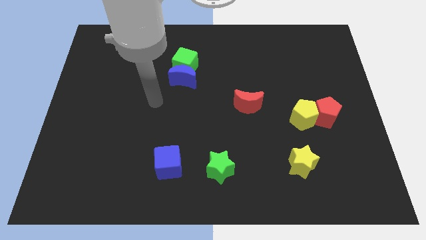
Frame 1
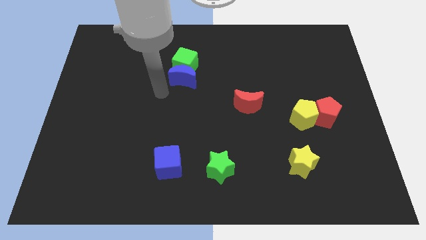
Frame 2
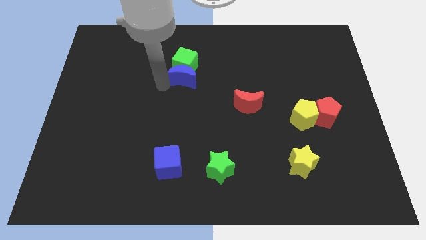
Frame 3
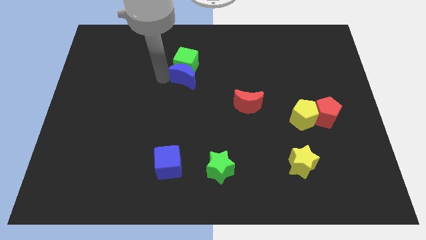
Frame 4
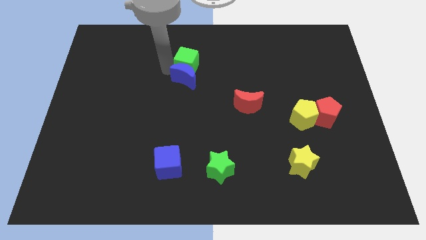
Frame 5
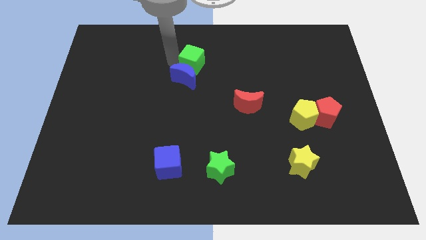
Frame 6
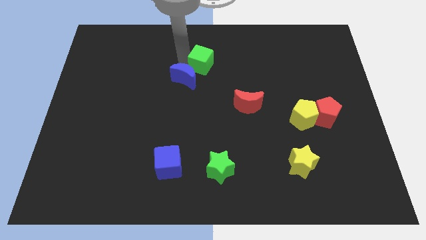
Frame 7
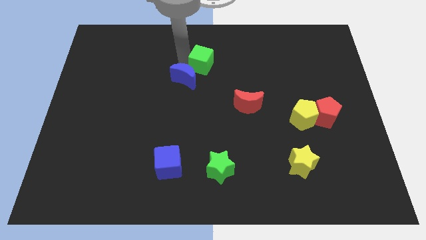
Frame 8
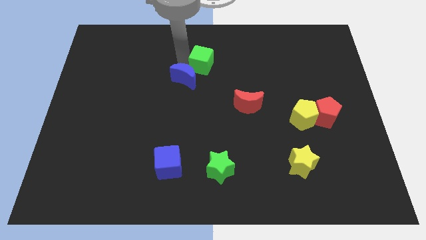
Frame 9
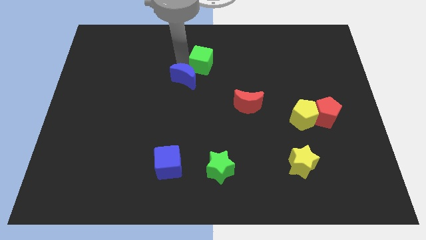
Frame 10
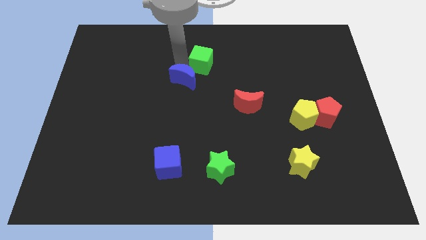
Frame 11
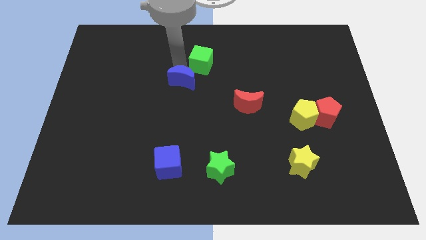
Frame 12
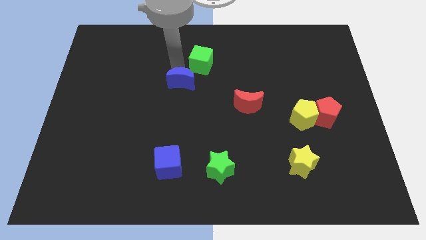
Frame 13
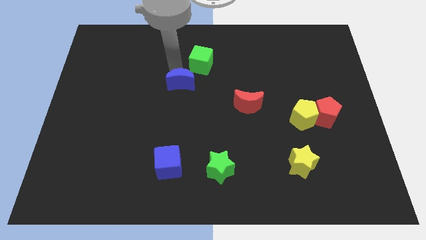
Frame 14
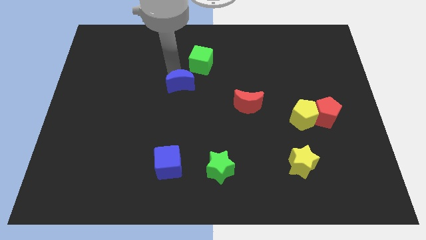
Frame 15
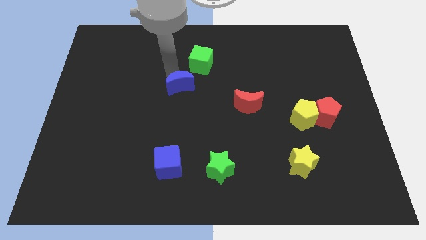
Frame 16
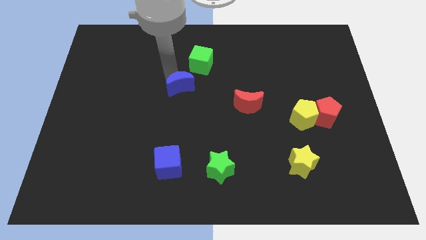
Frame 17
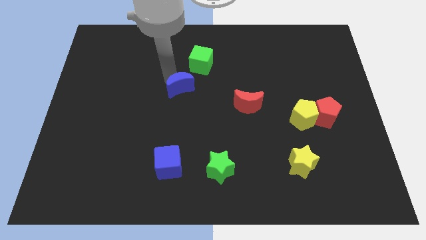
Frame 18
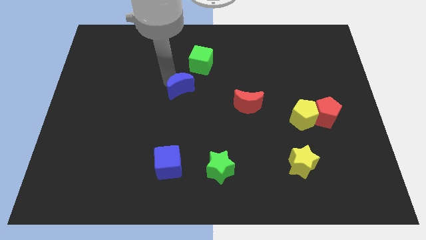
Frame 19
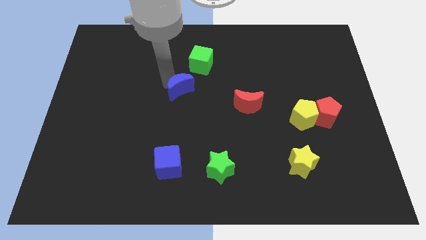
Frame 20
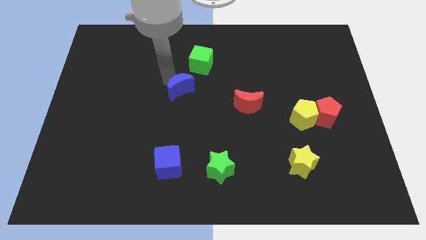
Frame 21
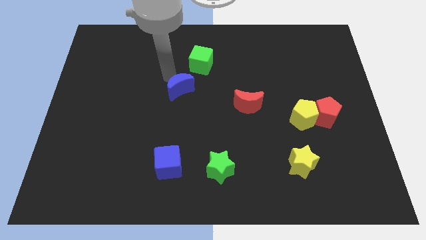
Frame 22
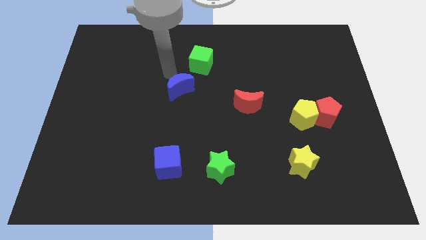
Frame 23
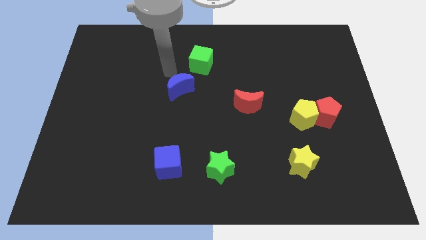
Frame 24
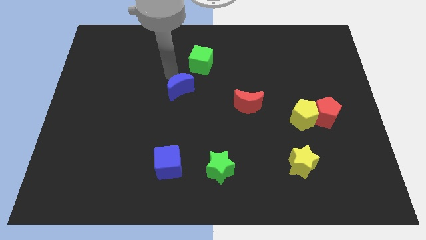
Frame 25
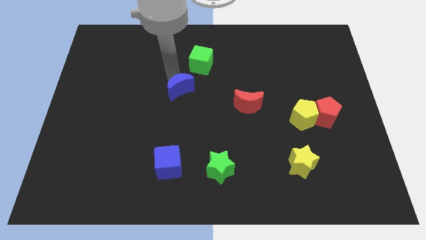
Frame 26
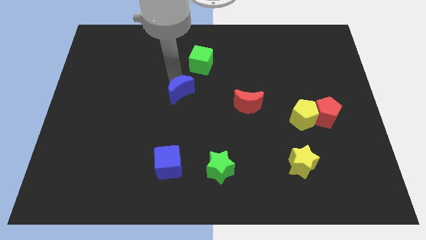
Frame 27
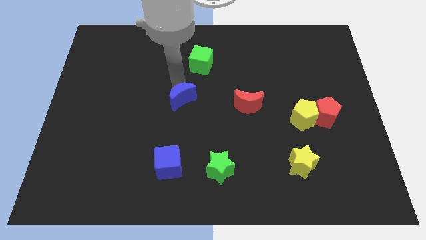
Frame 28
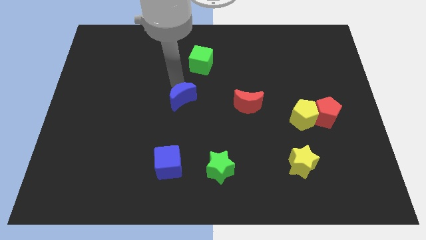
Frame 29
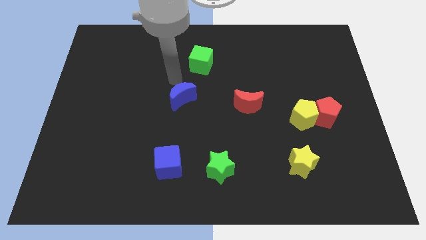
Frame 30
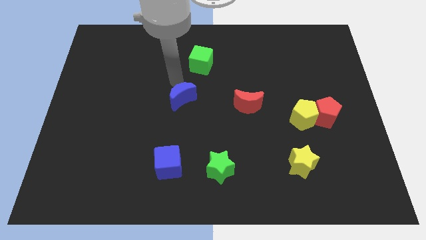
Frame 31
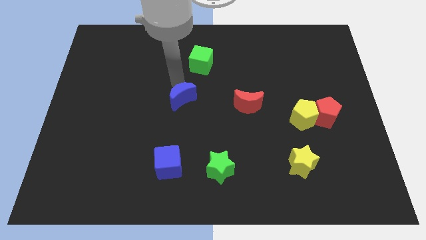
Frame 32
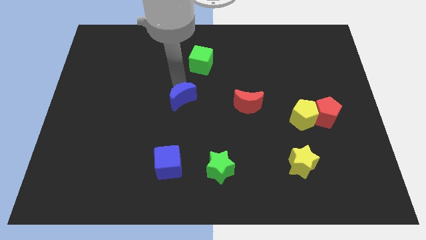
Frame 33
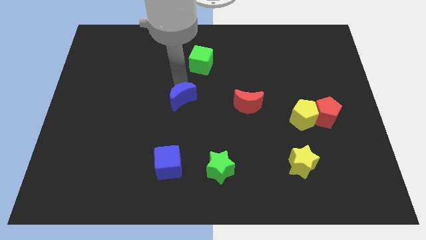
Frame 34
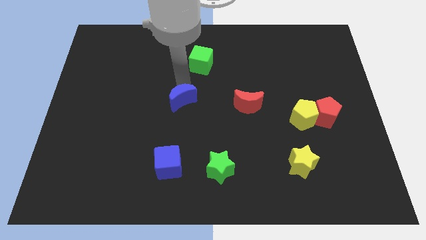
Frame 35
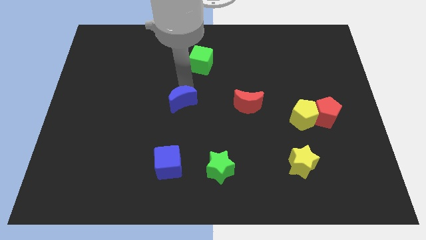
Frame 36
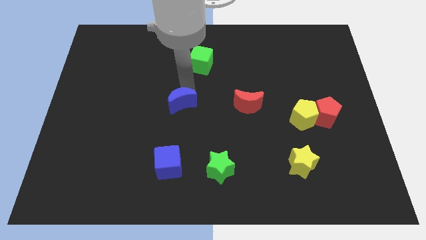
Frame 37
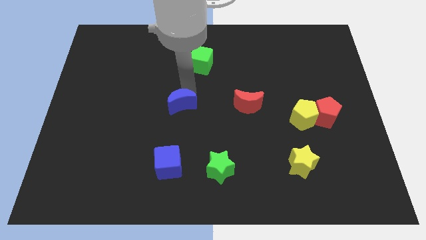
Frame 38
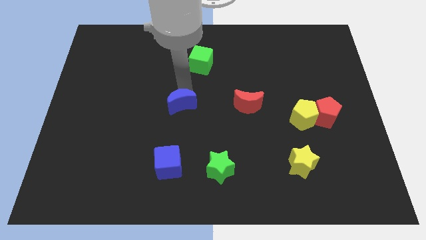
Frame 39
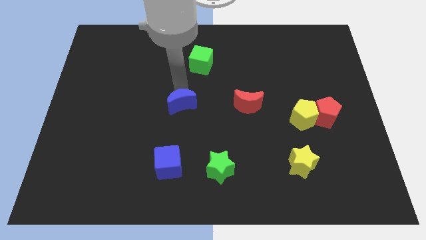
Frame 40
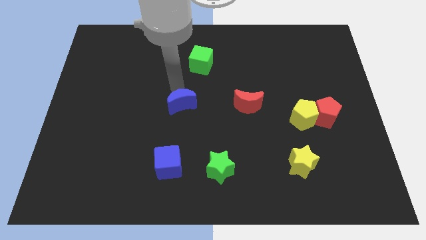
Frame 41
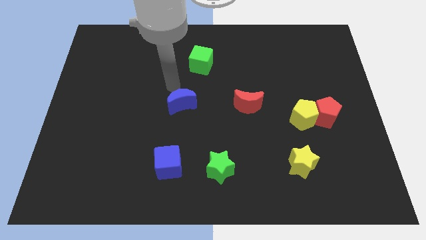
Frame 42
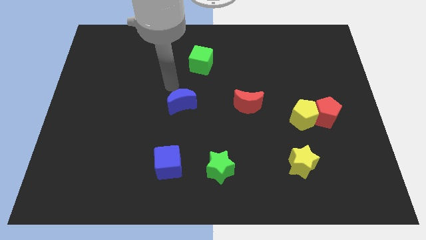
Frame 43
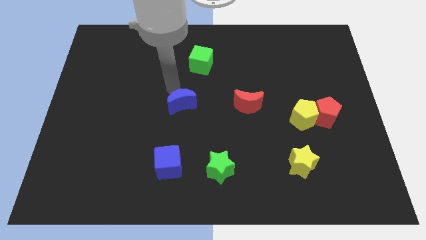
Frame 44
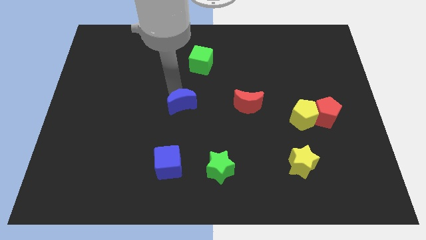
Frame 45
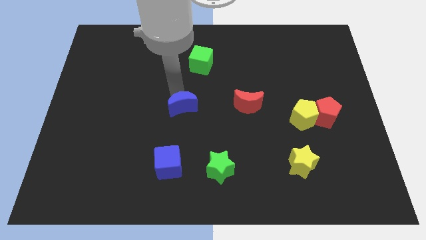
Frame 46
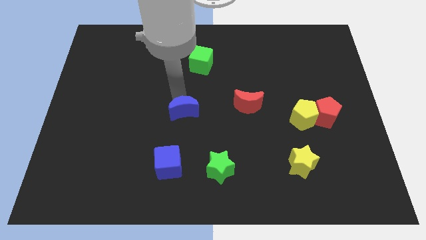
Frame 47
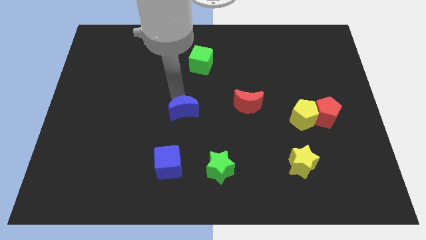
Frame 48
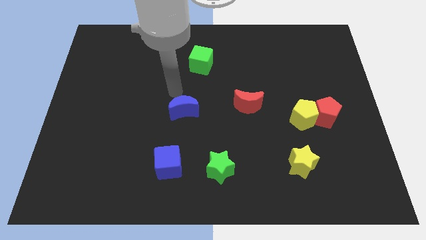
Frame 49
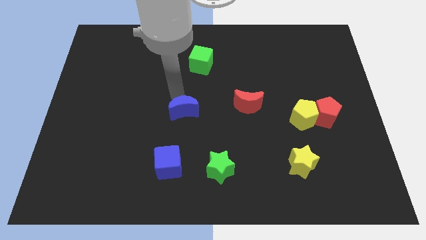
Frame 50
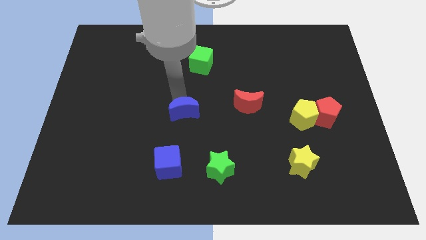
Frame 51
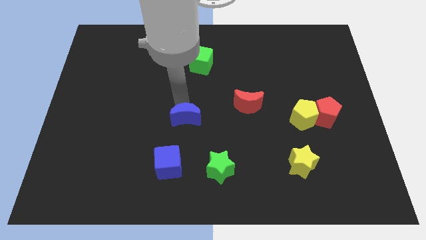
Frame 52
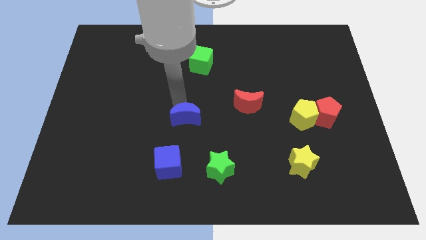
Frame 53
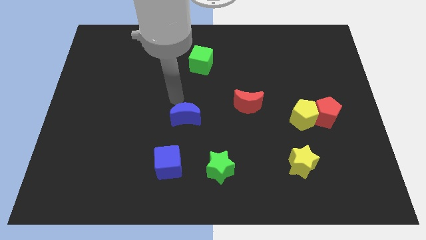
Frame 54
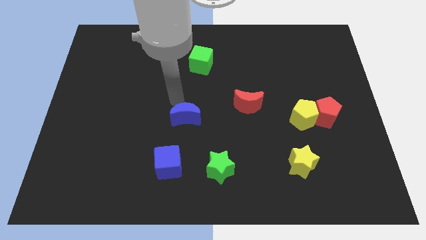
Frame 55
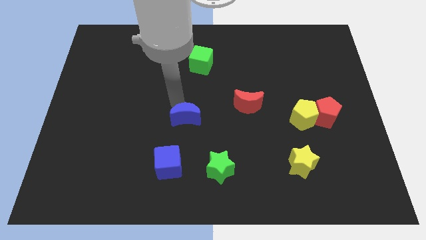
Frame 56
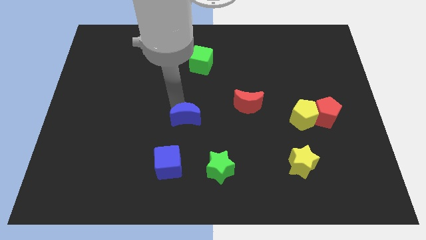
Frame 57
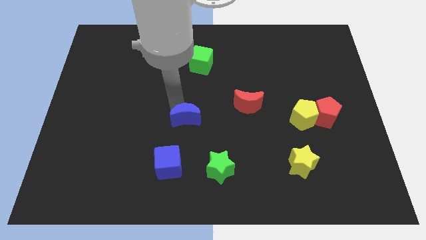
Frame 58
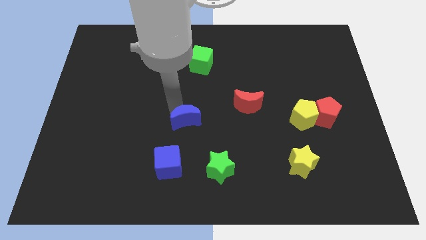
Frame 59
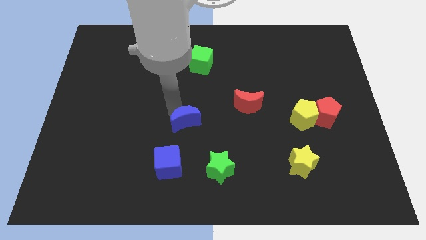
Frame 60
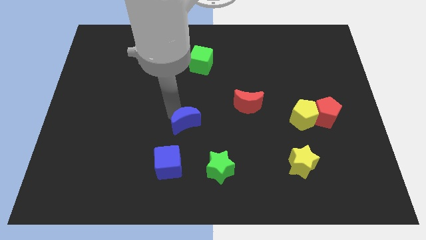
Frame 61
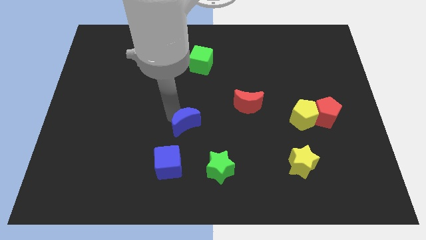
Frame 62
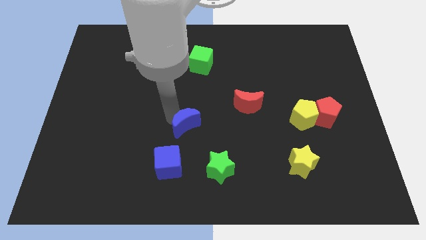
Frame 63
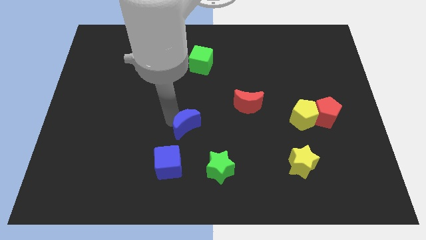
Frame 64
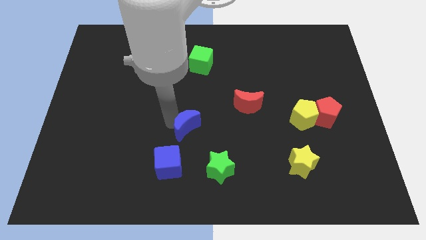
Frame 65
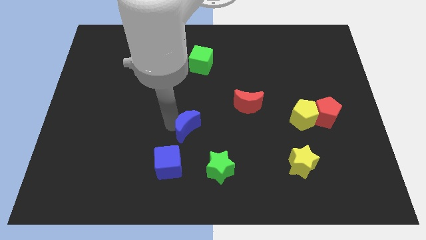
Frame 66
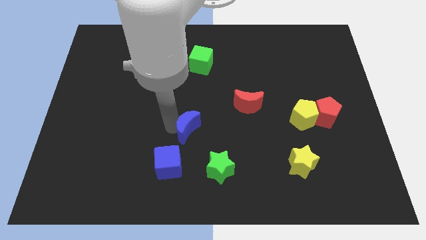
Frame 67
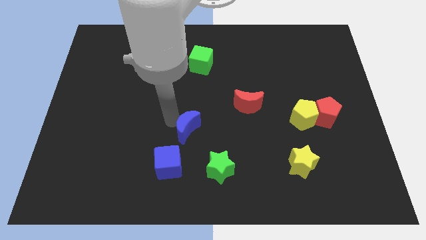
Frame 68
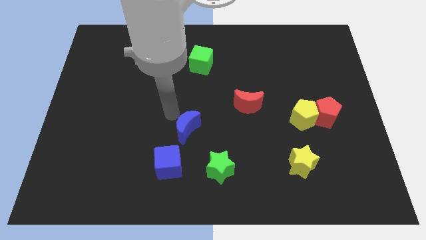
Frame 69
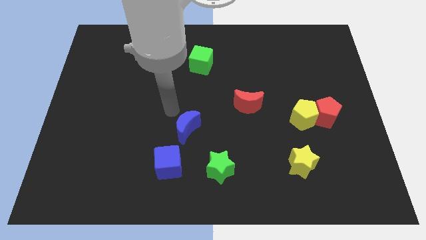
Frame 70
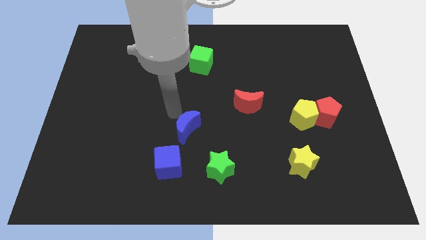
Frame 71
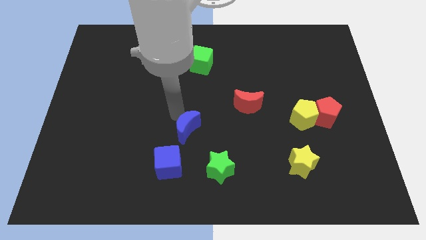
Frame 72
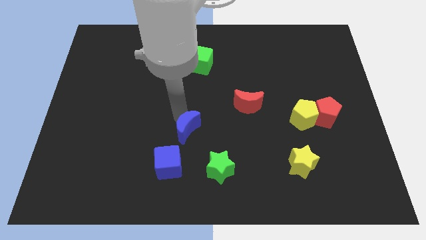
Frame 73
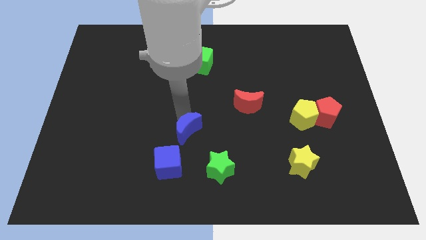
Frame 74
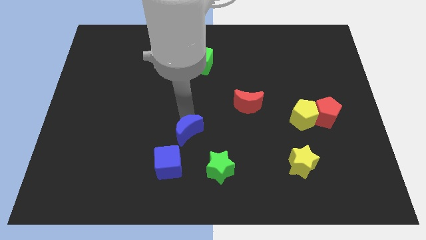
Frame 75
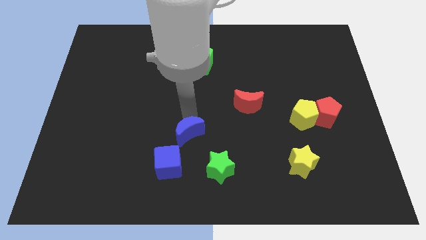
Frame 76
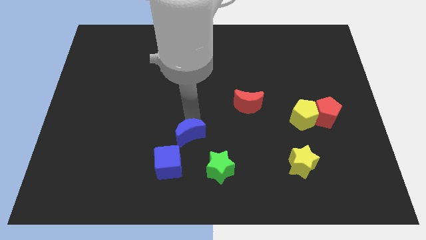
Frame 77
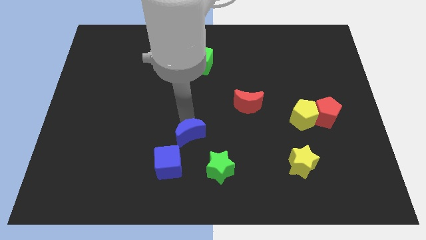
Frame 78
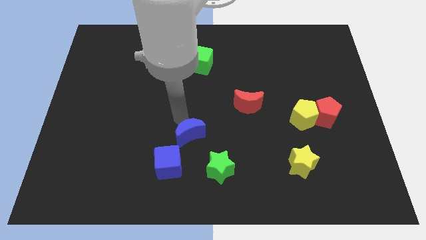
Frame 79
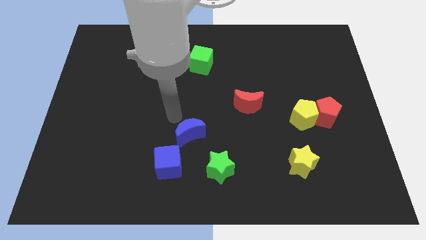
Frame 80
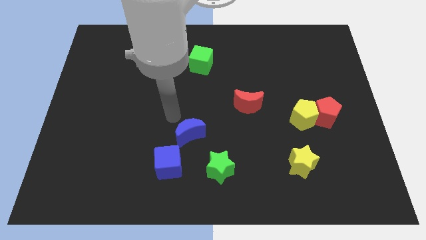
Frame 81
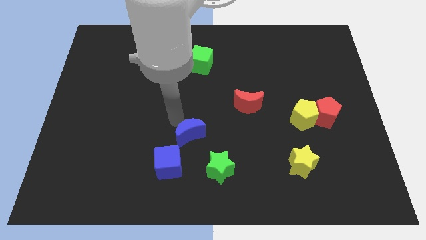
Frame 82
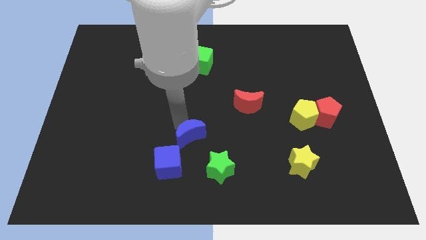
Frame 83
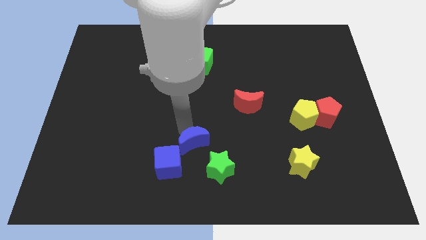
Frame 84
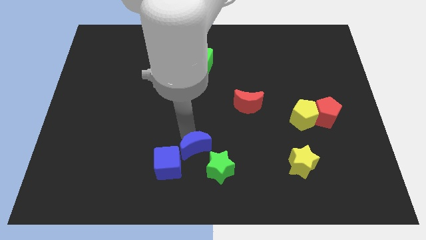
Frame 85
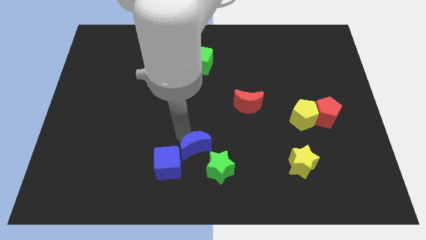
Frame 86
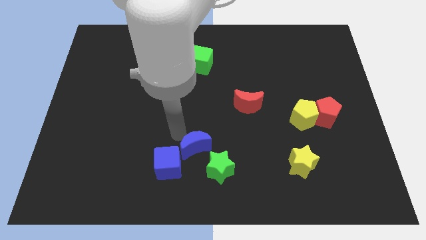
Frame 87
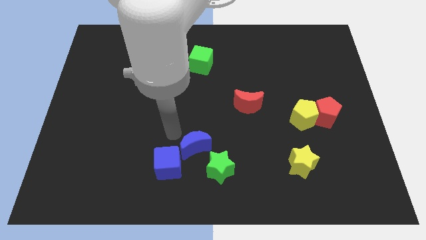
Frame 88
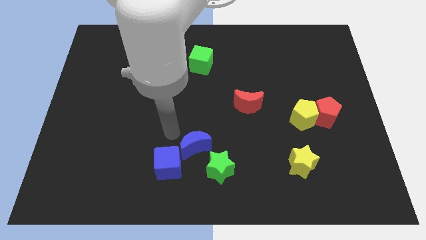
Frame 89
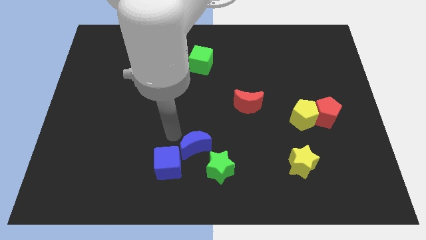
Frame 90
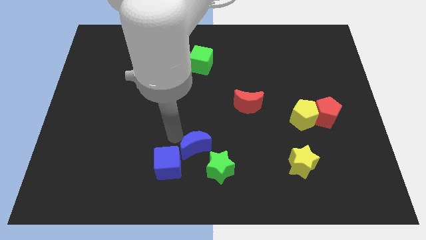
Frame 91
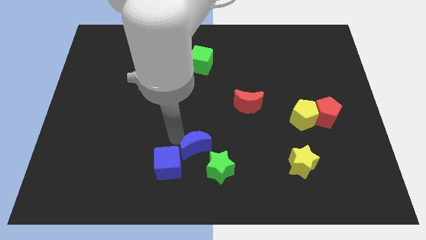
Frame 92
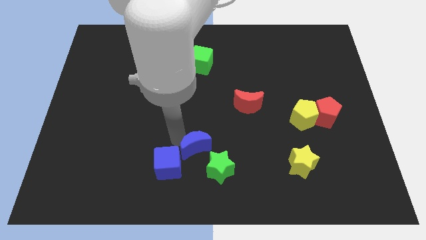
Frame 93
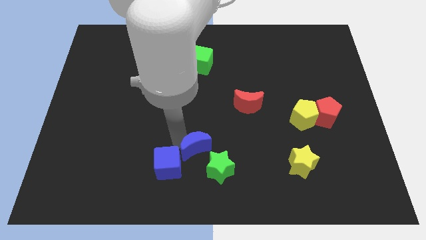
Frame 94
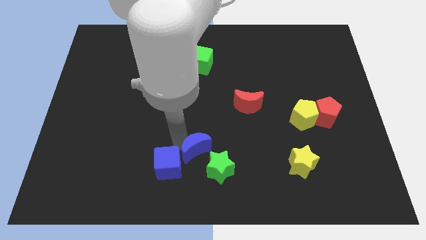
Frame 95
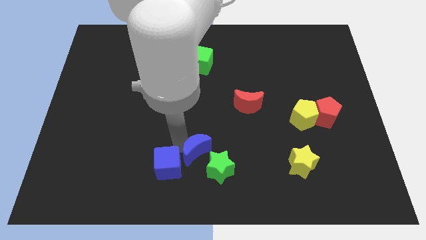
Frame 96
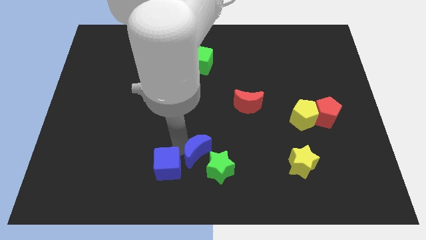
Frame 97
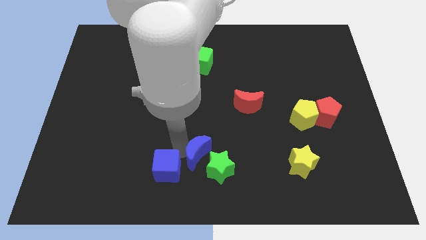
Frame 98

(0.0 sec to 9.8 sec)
push the blue moon towards the green star
